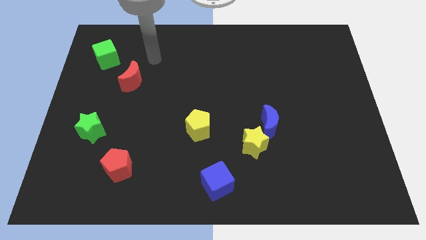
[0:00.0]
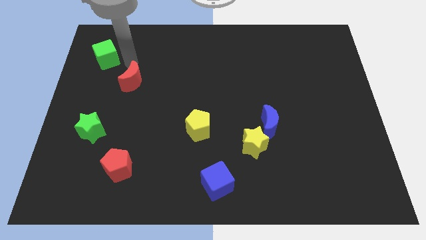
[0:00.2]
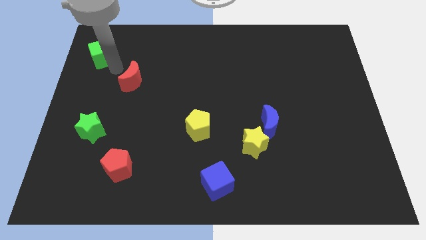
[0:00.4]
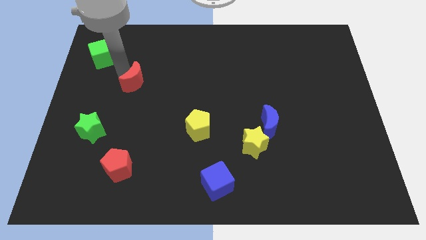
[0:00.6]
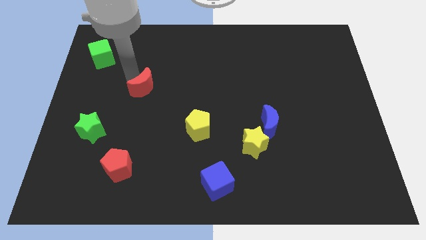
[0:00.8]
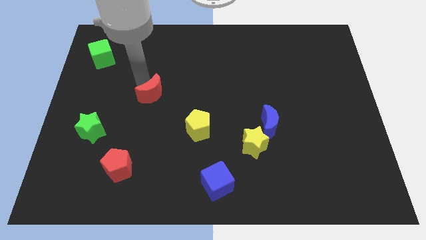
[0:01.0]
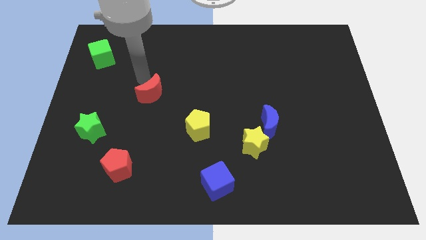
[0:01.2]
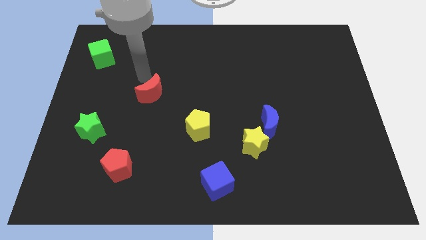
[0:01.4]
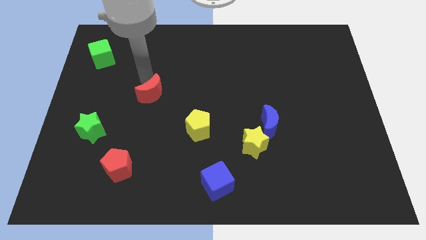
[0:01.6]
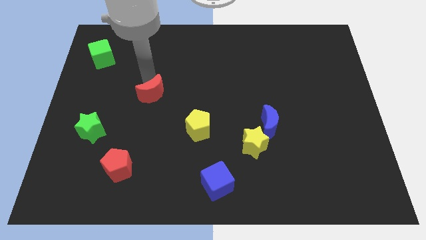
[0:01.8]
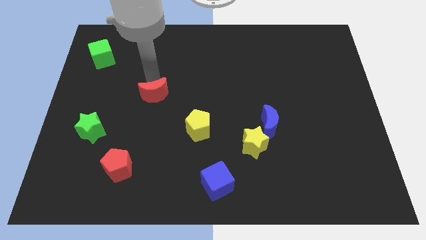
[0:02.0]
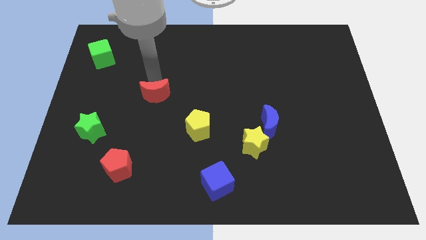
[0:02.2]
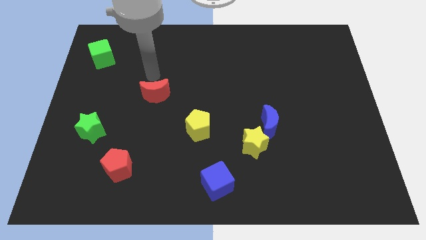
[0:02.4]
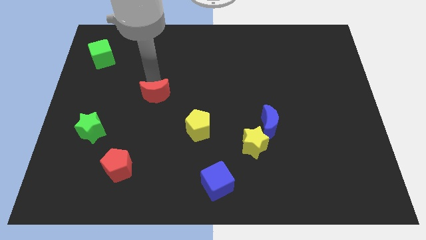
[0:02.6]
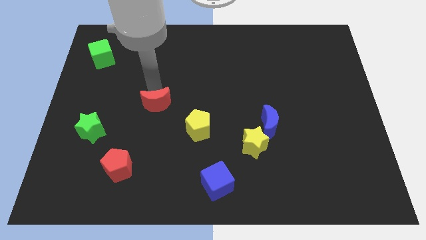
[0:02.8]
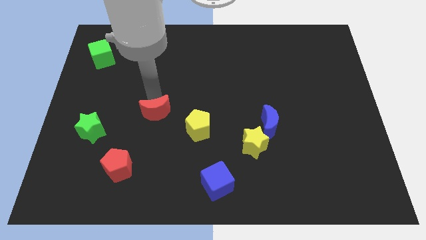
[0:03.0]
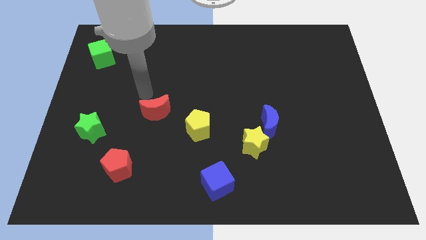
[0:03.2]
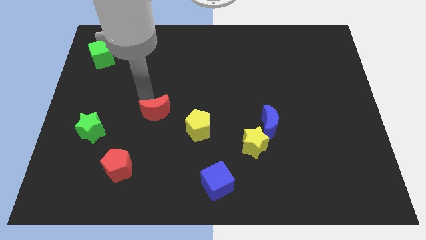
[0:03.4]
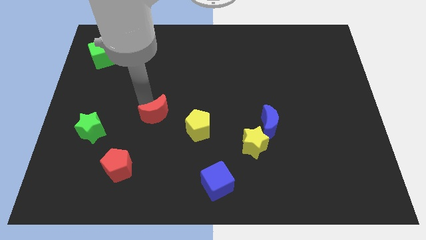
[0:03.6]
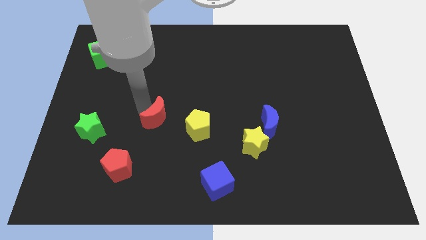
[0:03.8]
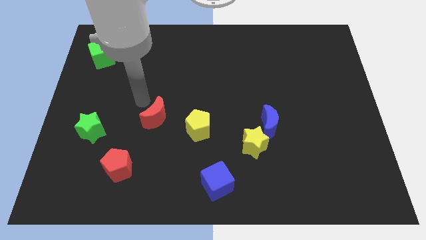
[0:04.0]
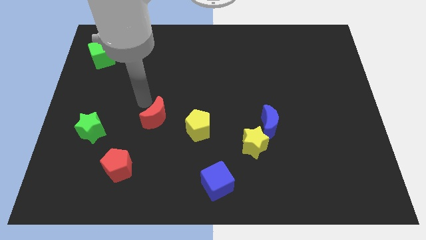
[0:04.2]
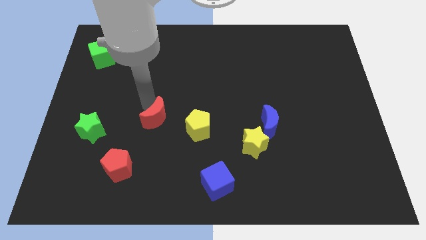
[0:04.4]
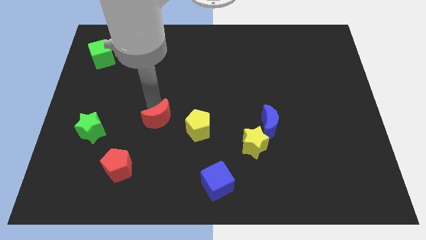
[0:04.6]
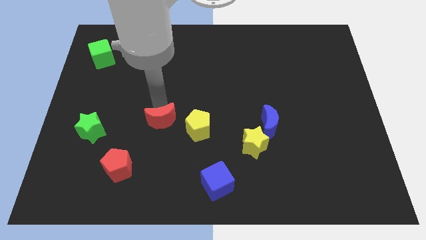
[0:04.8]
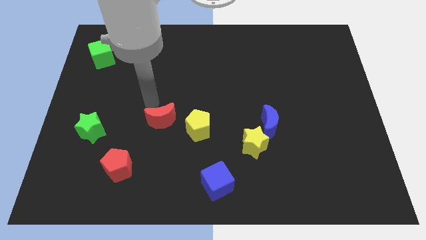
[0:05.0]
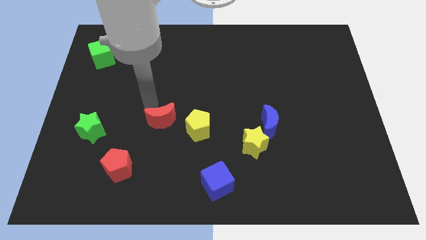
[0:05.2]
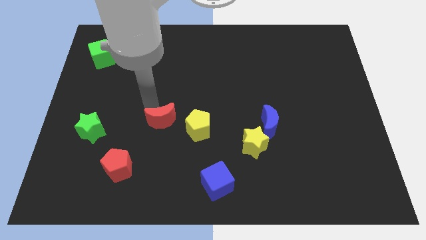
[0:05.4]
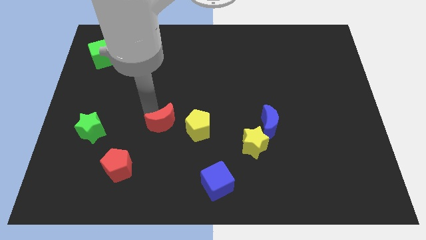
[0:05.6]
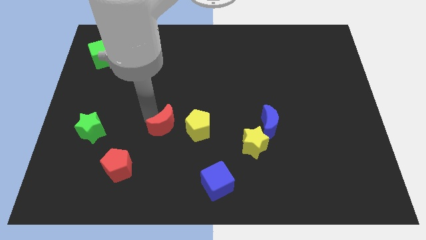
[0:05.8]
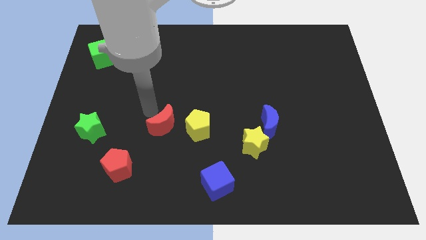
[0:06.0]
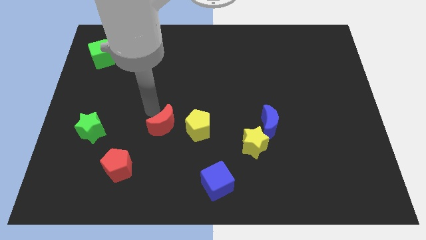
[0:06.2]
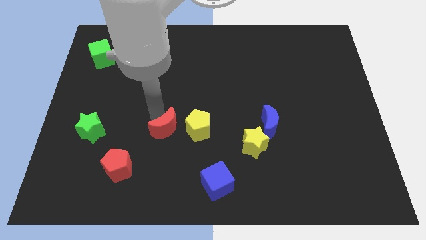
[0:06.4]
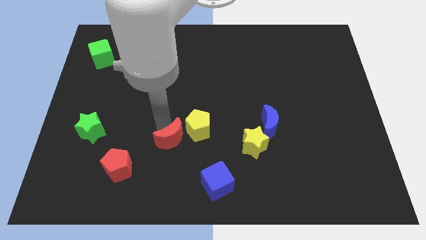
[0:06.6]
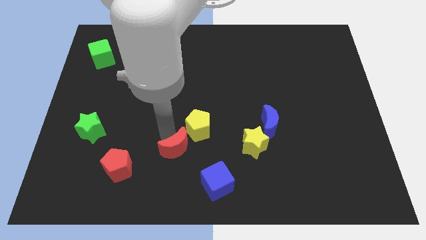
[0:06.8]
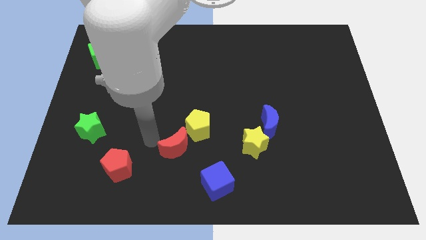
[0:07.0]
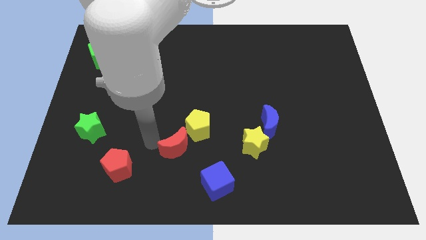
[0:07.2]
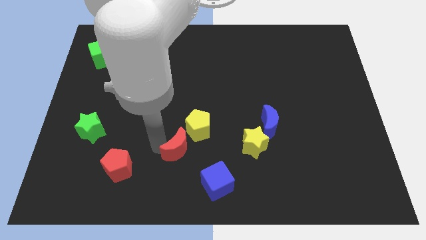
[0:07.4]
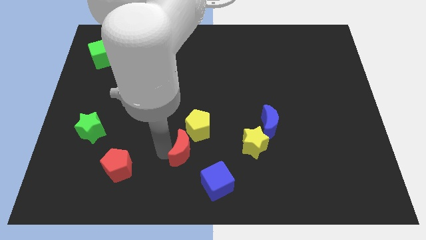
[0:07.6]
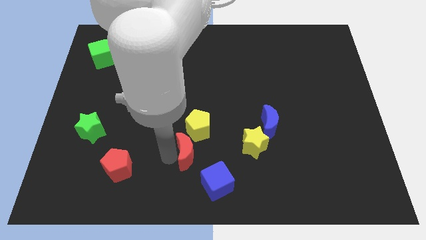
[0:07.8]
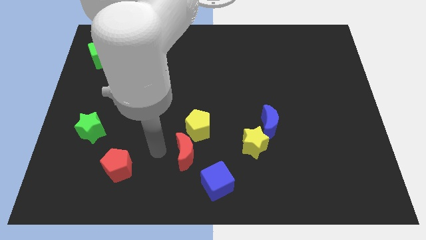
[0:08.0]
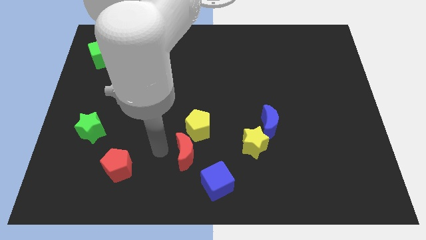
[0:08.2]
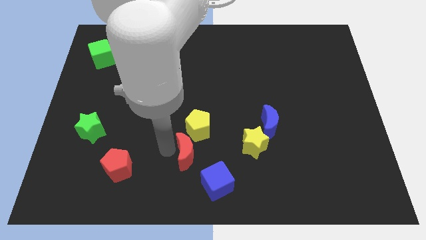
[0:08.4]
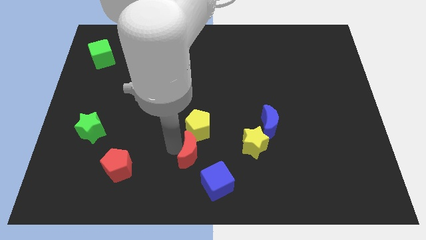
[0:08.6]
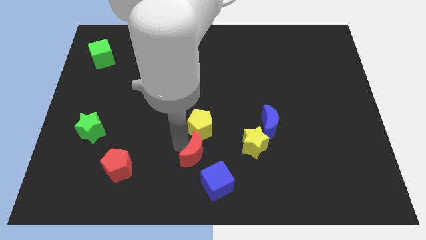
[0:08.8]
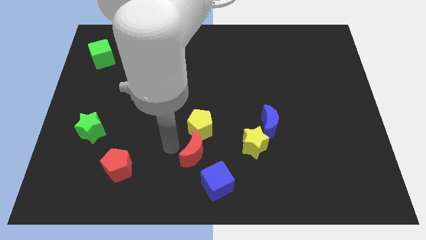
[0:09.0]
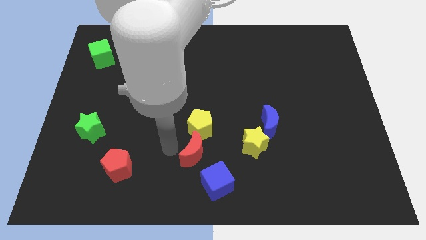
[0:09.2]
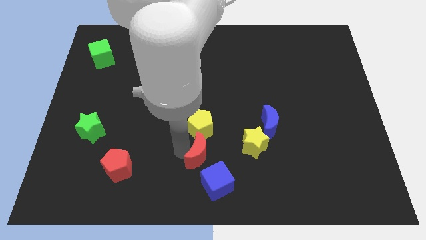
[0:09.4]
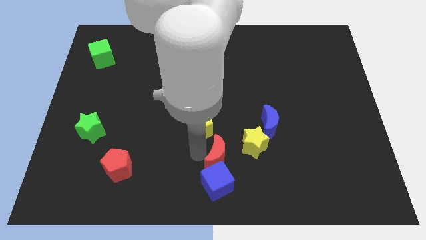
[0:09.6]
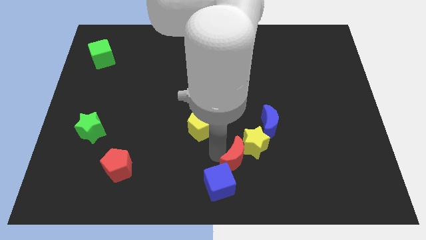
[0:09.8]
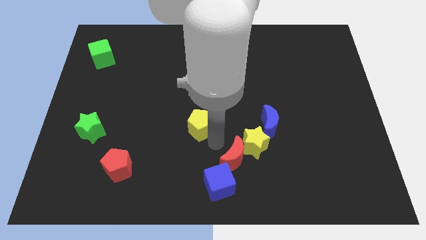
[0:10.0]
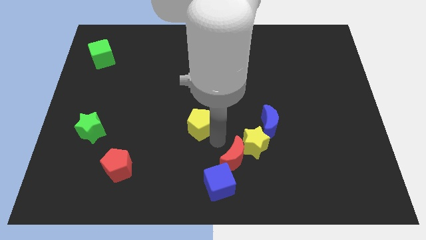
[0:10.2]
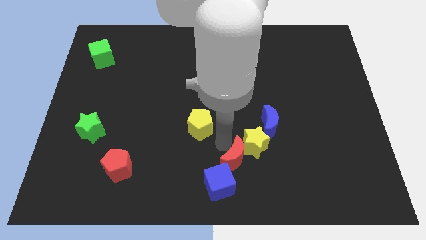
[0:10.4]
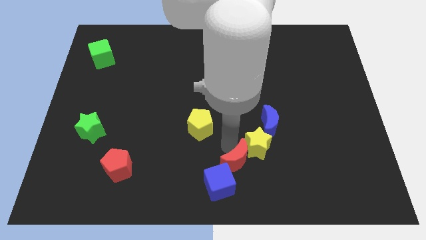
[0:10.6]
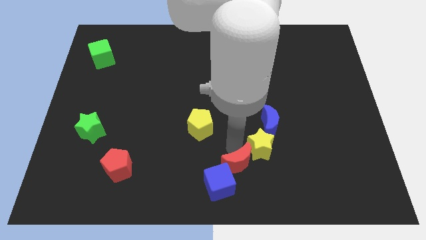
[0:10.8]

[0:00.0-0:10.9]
push the red moon right of the blue cube

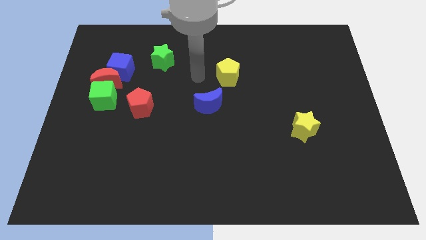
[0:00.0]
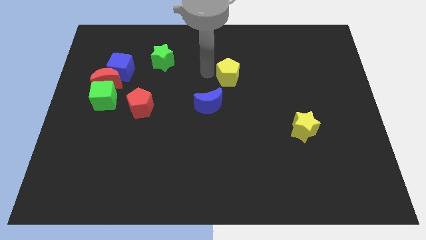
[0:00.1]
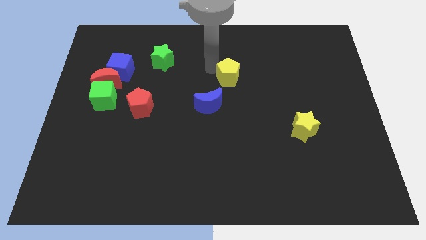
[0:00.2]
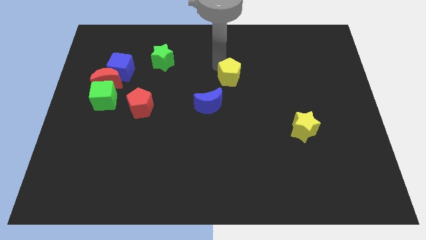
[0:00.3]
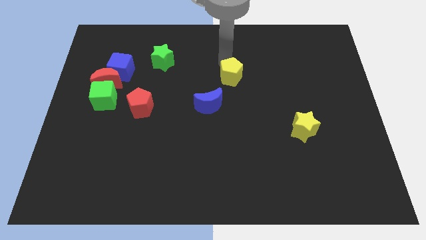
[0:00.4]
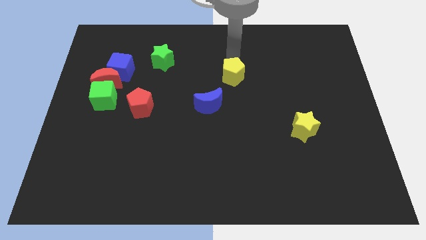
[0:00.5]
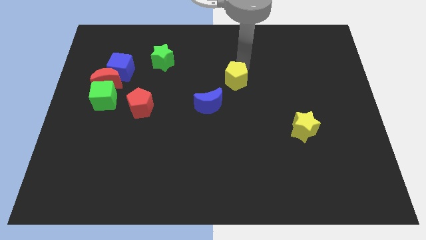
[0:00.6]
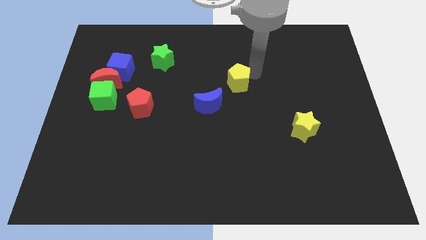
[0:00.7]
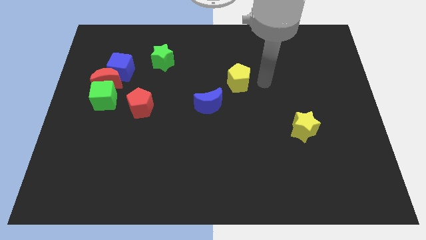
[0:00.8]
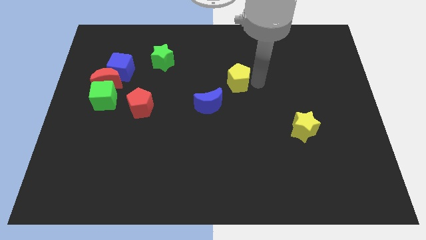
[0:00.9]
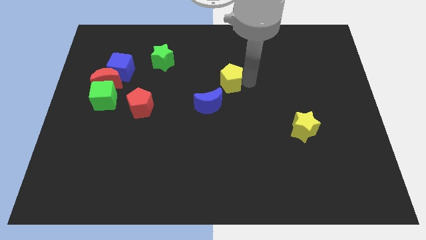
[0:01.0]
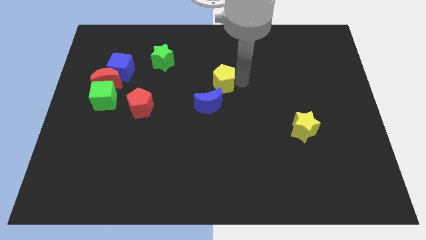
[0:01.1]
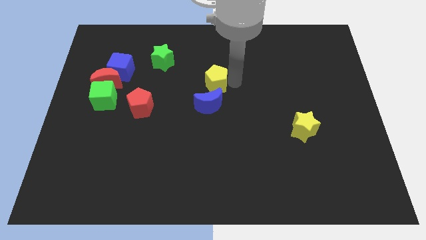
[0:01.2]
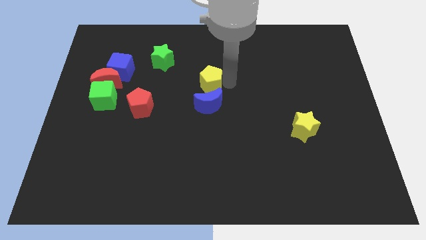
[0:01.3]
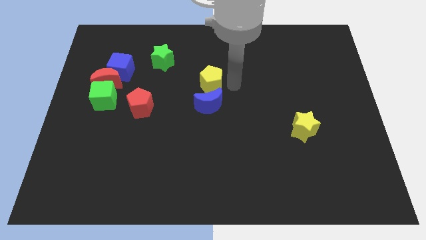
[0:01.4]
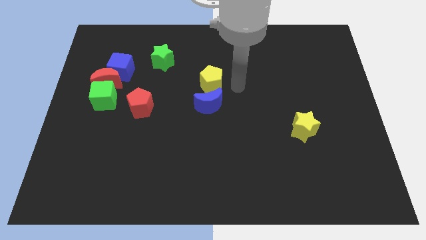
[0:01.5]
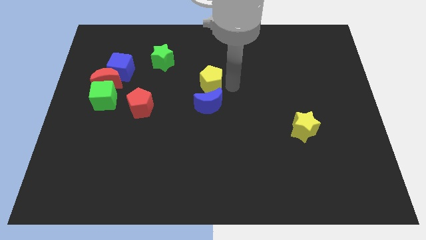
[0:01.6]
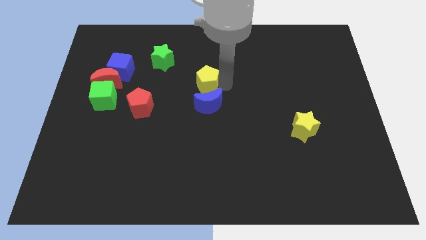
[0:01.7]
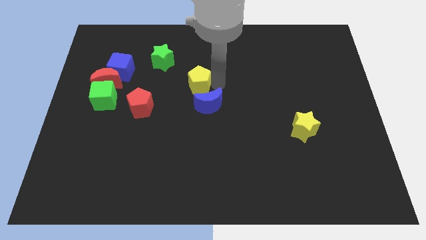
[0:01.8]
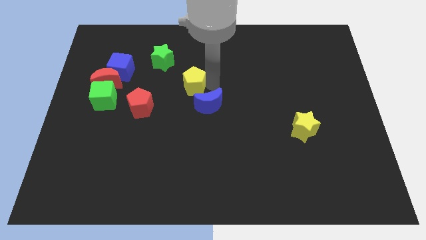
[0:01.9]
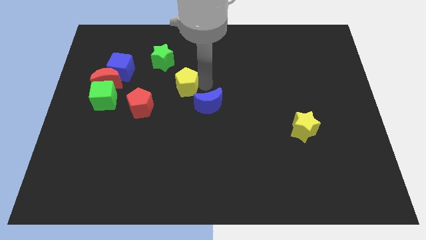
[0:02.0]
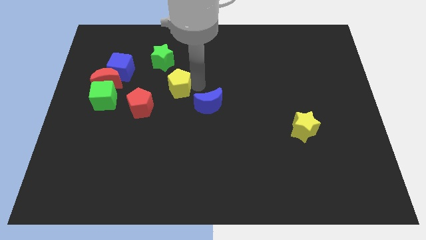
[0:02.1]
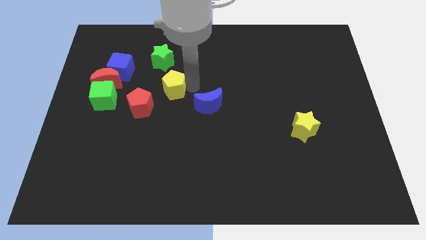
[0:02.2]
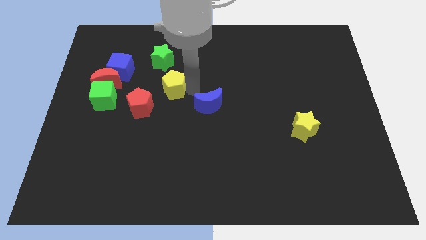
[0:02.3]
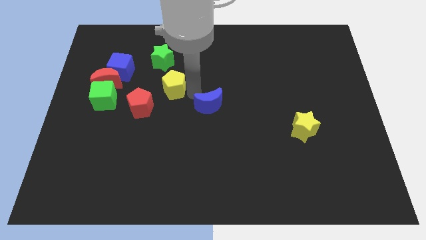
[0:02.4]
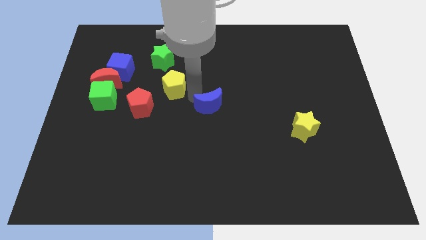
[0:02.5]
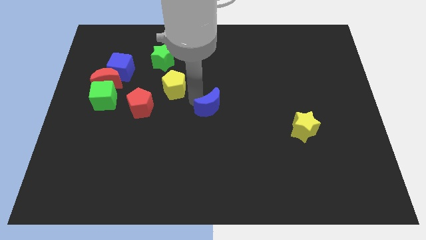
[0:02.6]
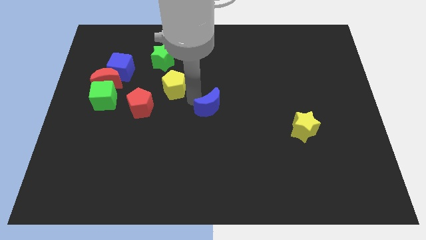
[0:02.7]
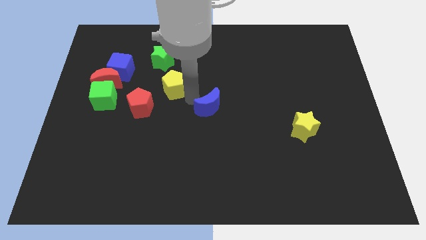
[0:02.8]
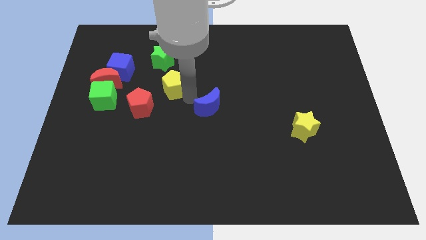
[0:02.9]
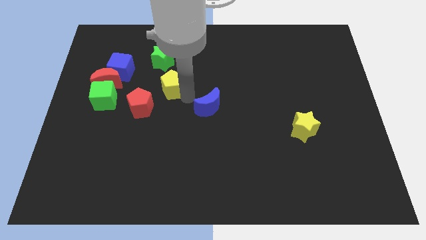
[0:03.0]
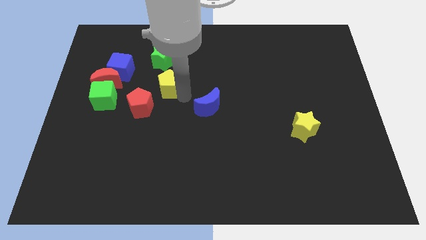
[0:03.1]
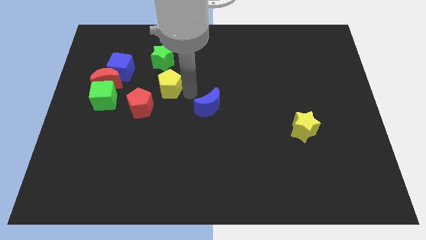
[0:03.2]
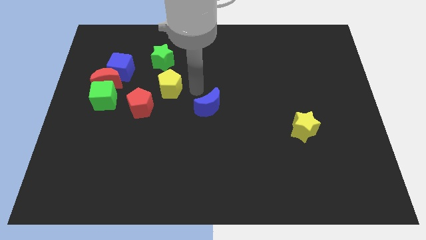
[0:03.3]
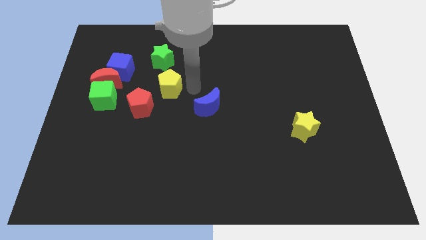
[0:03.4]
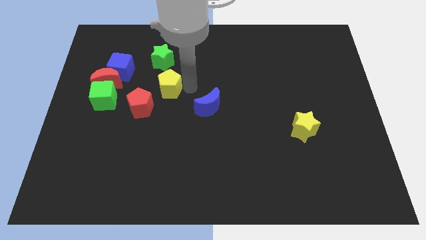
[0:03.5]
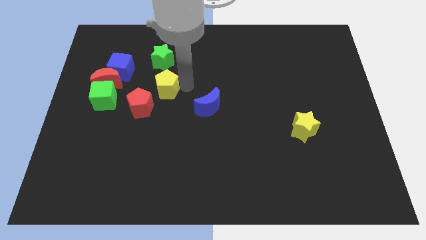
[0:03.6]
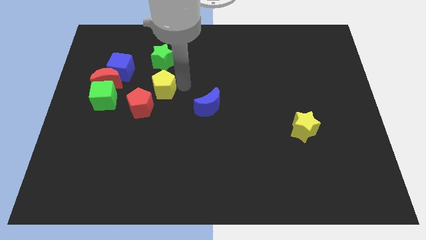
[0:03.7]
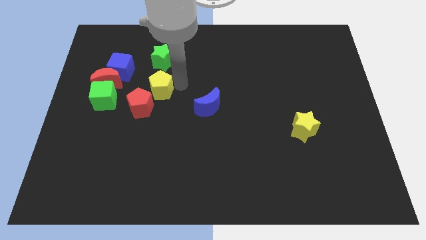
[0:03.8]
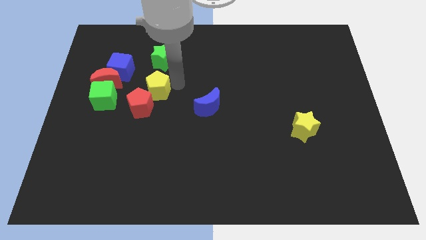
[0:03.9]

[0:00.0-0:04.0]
put the yellow pentagon to the bottom right of the blue cube
